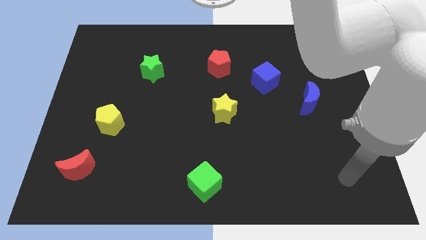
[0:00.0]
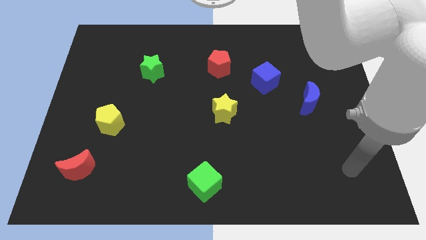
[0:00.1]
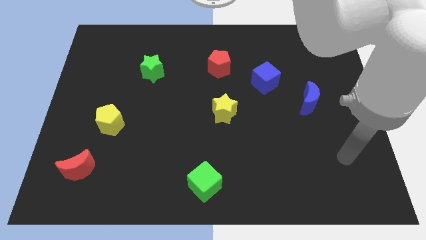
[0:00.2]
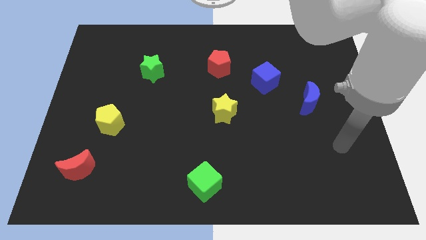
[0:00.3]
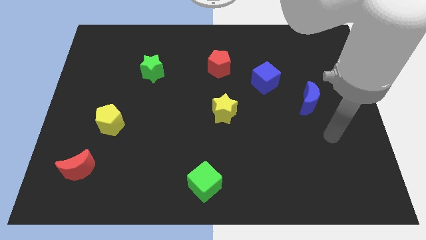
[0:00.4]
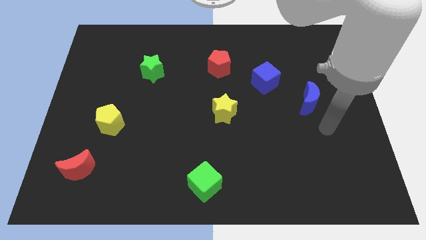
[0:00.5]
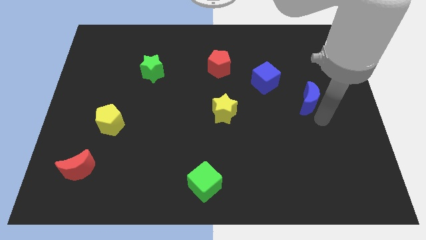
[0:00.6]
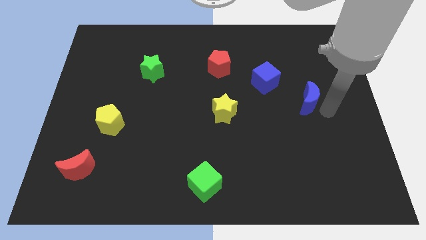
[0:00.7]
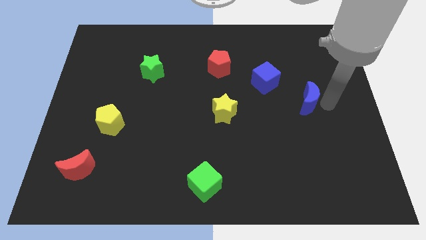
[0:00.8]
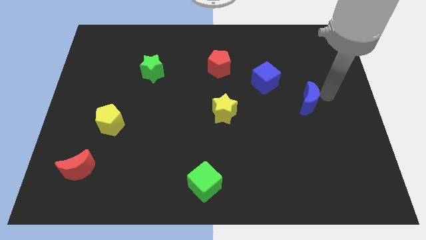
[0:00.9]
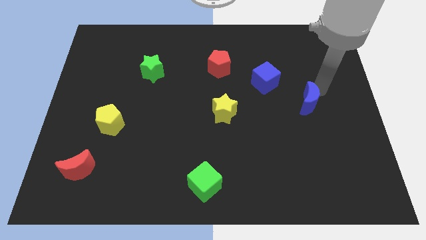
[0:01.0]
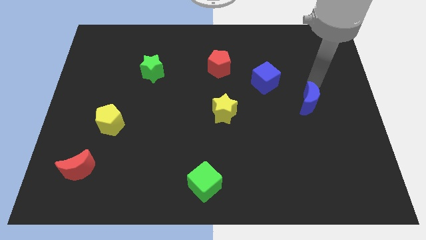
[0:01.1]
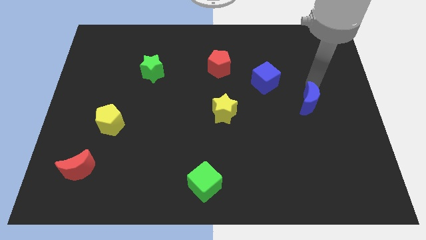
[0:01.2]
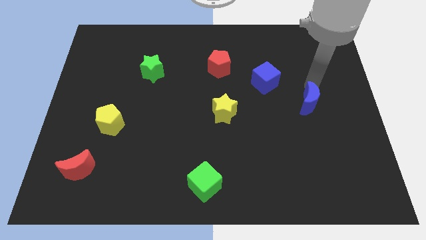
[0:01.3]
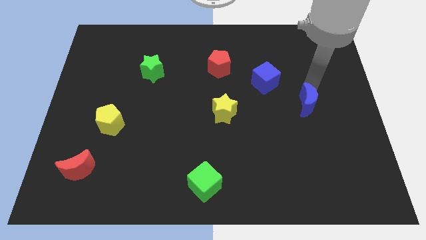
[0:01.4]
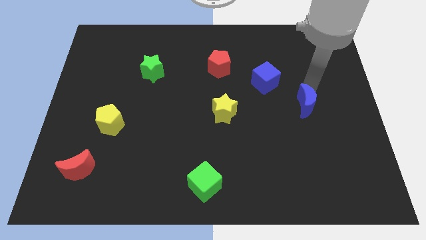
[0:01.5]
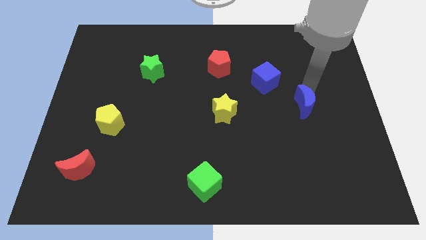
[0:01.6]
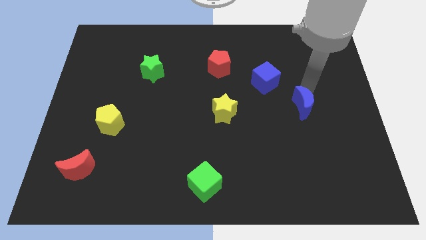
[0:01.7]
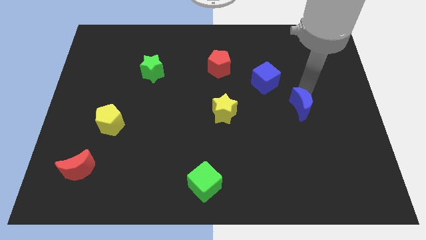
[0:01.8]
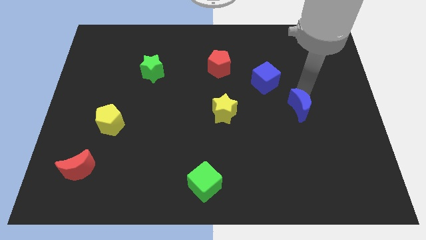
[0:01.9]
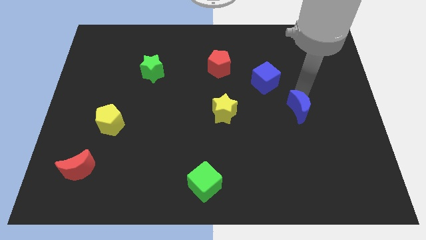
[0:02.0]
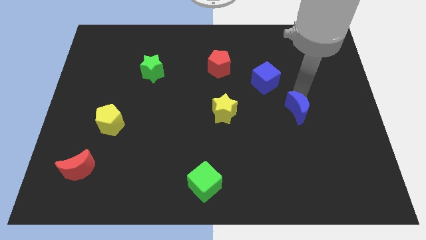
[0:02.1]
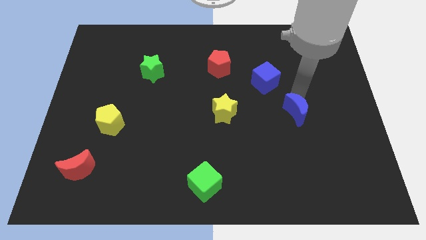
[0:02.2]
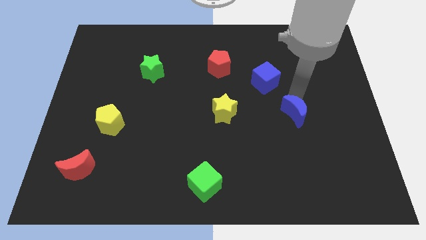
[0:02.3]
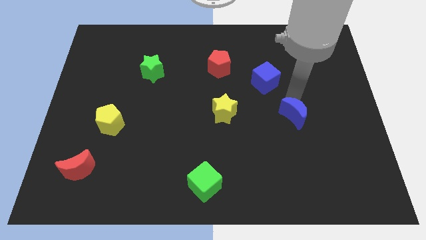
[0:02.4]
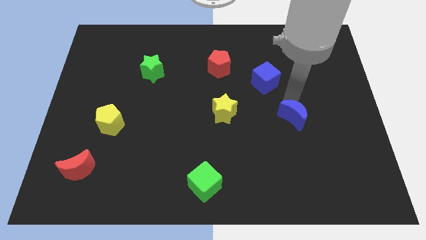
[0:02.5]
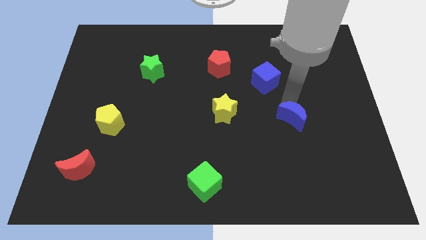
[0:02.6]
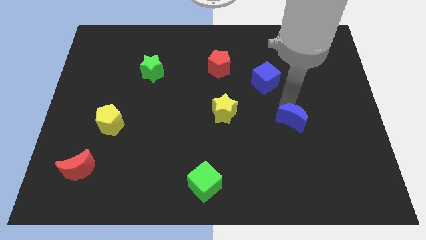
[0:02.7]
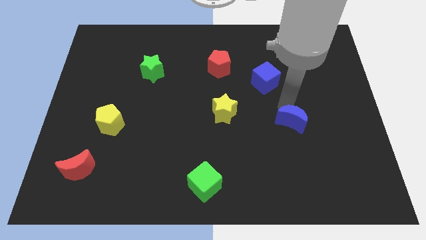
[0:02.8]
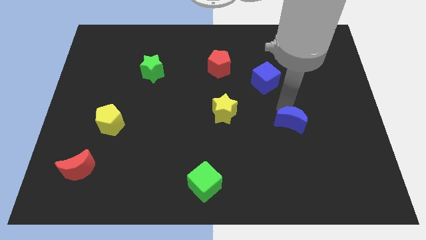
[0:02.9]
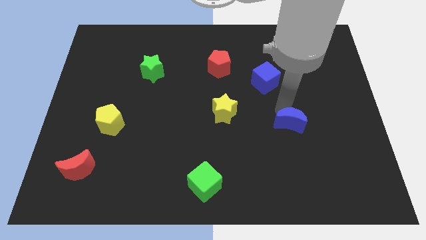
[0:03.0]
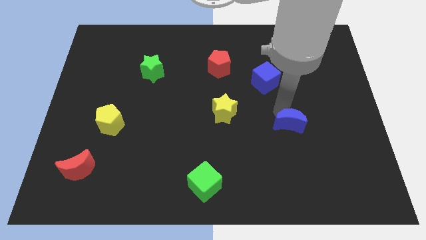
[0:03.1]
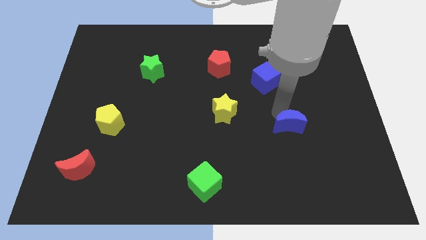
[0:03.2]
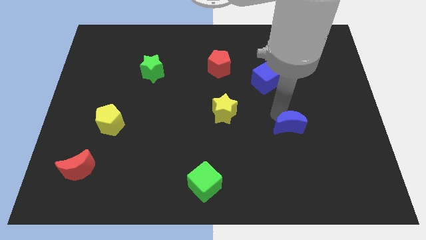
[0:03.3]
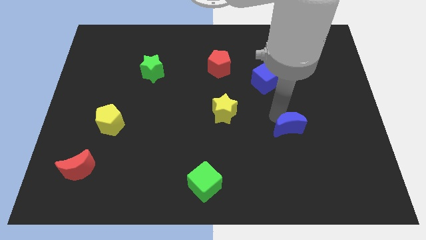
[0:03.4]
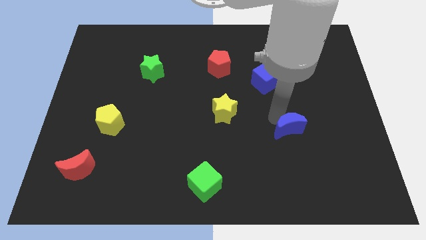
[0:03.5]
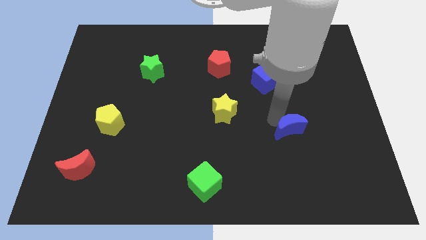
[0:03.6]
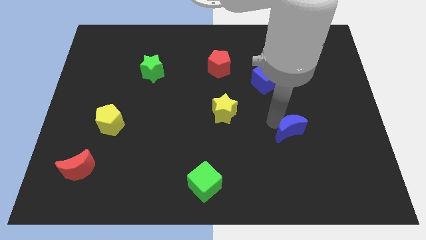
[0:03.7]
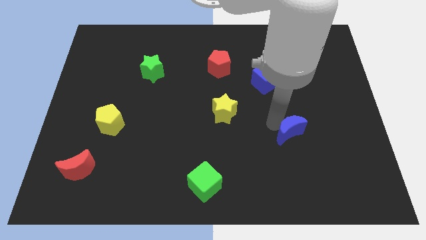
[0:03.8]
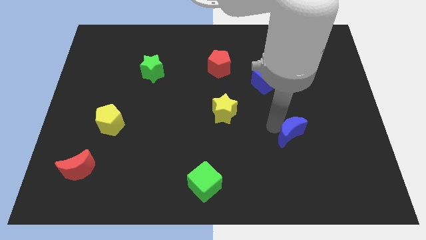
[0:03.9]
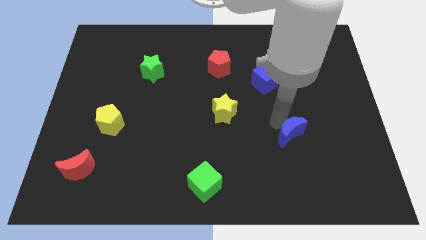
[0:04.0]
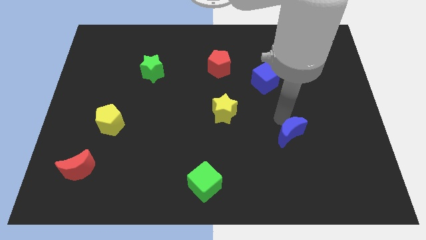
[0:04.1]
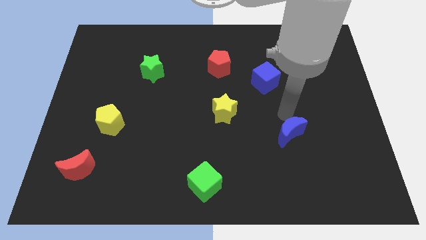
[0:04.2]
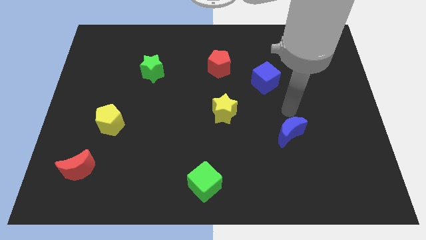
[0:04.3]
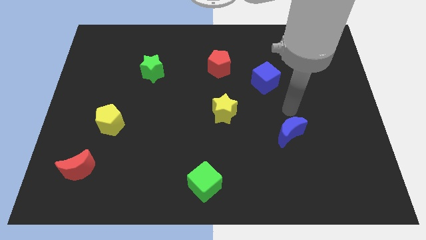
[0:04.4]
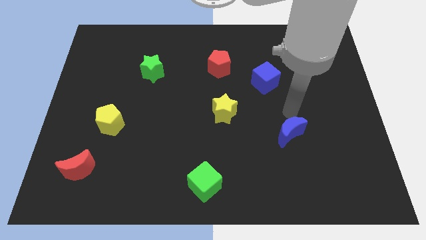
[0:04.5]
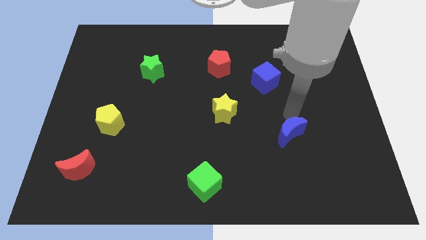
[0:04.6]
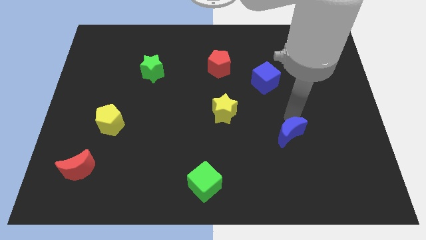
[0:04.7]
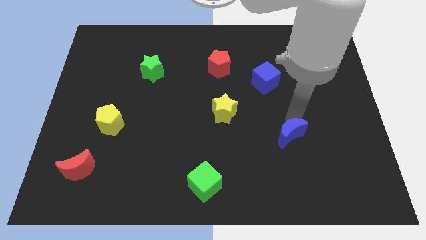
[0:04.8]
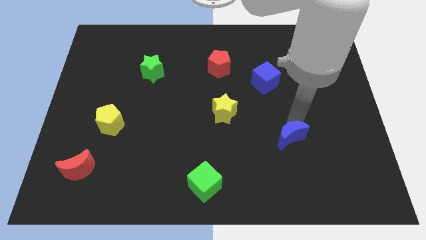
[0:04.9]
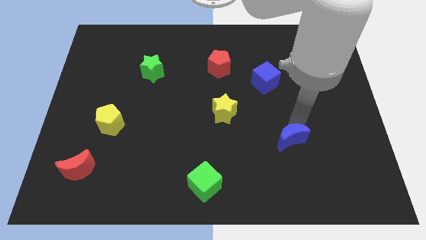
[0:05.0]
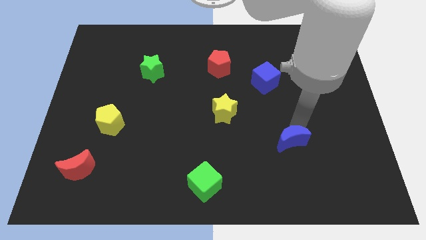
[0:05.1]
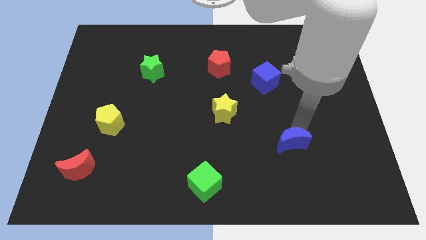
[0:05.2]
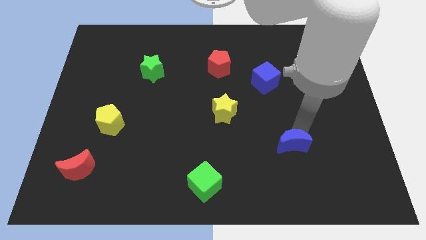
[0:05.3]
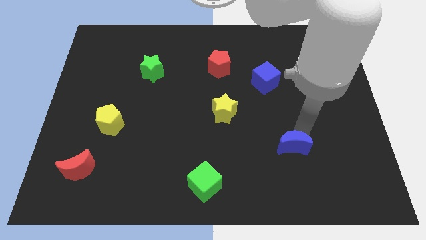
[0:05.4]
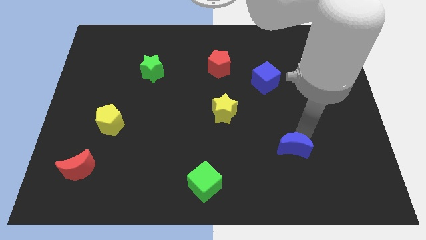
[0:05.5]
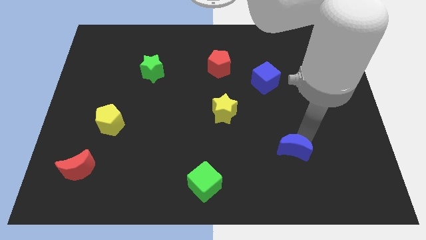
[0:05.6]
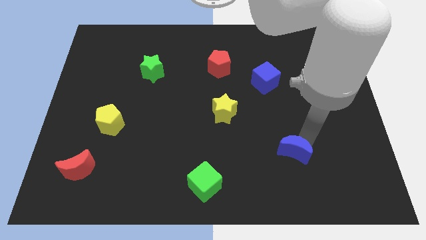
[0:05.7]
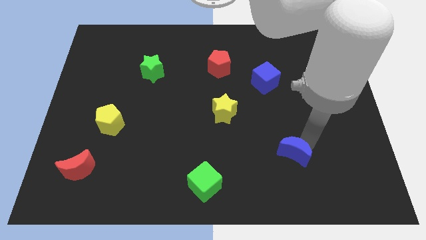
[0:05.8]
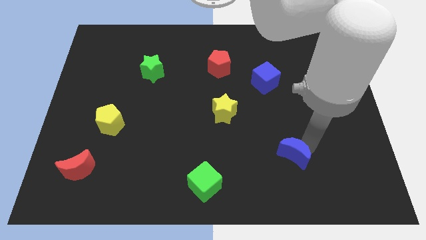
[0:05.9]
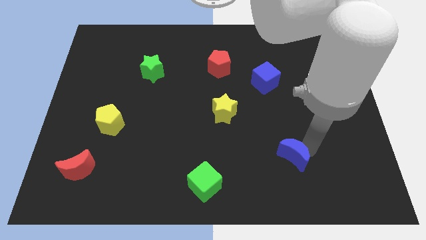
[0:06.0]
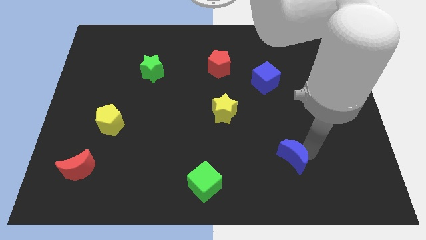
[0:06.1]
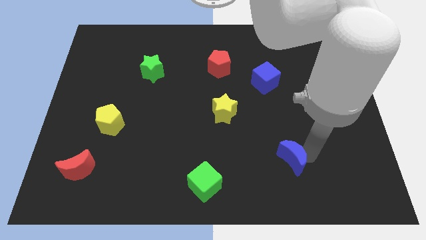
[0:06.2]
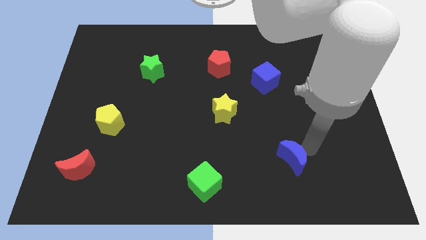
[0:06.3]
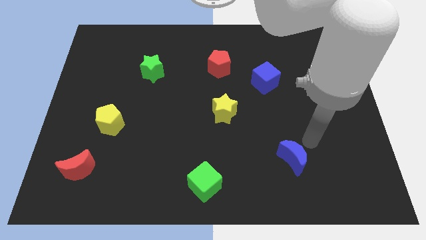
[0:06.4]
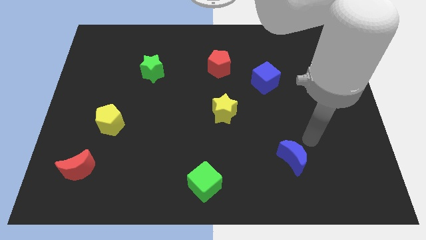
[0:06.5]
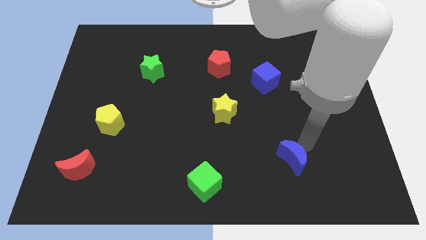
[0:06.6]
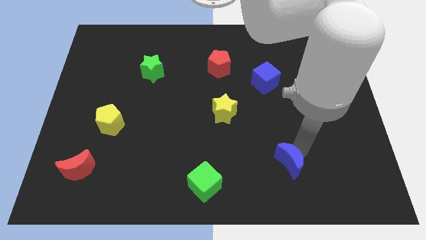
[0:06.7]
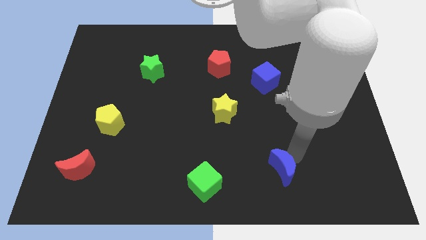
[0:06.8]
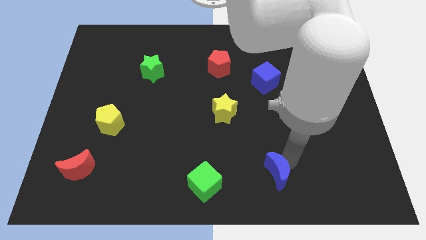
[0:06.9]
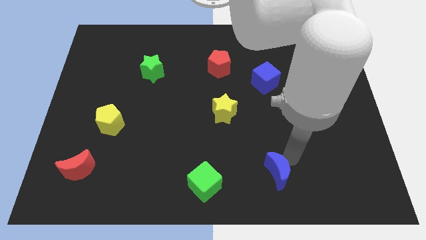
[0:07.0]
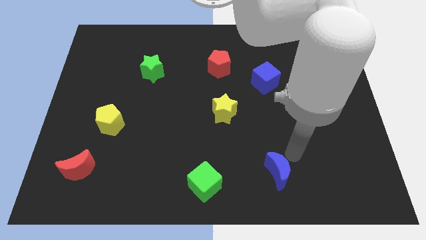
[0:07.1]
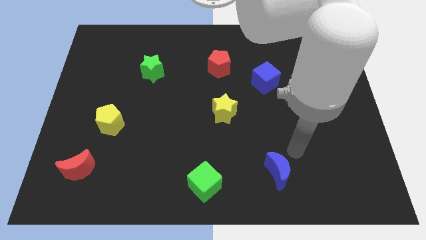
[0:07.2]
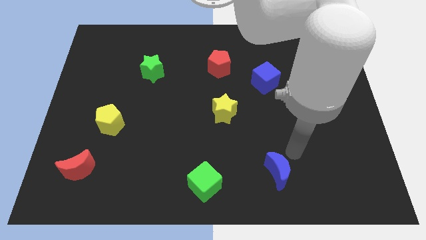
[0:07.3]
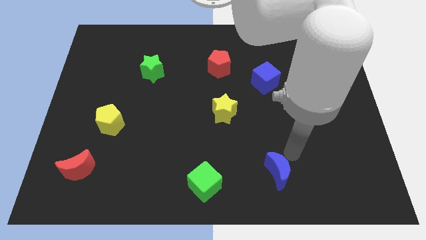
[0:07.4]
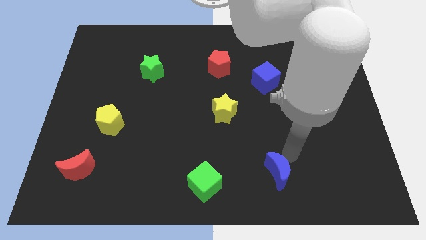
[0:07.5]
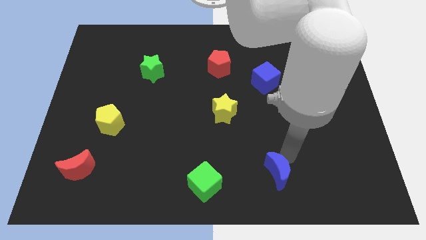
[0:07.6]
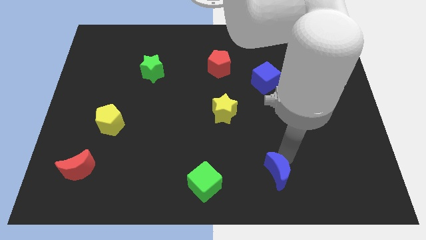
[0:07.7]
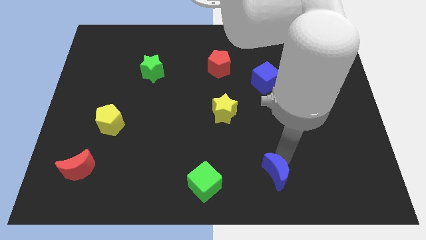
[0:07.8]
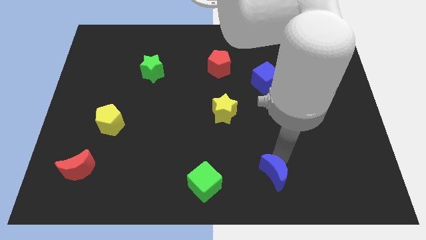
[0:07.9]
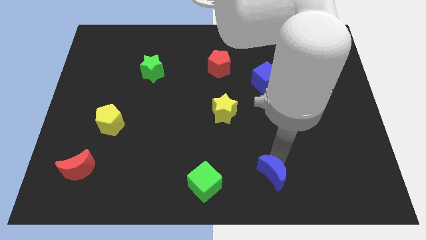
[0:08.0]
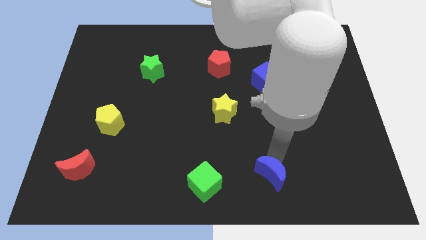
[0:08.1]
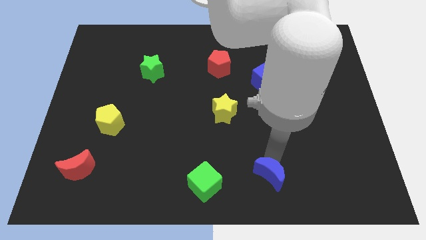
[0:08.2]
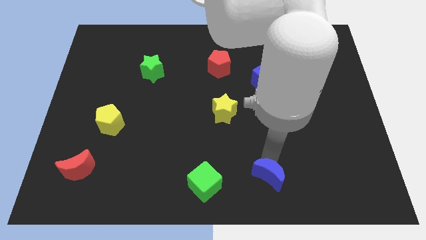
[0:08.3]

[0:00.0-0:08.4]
slide the blue moon to the bottom
